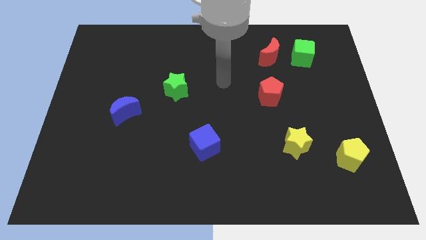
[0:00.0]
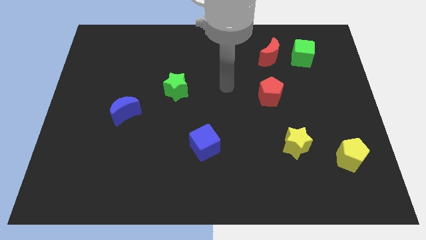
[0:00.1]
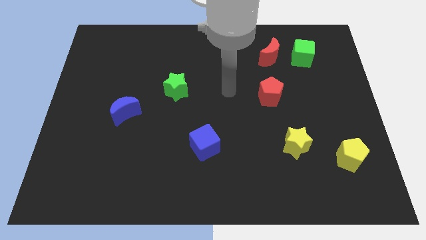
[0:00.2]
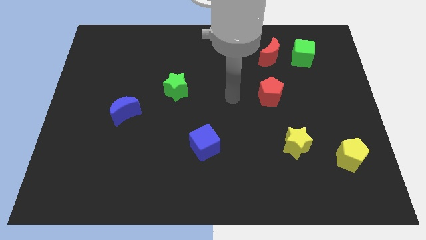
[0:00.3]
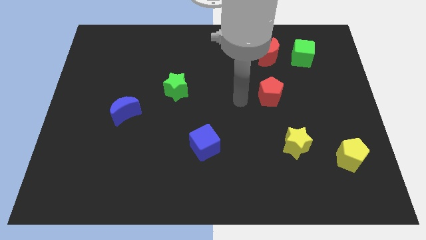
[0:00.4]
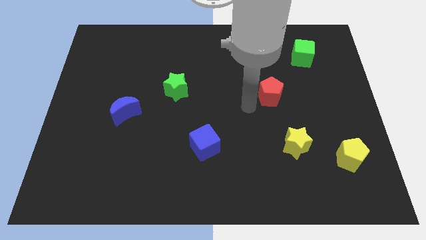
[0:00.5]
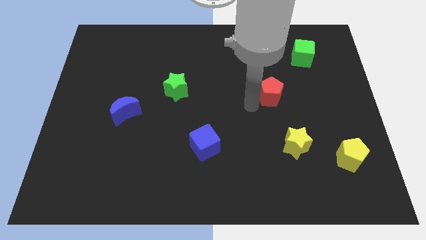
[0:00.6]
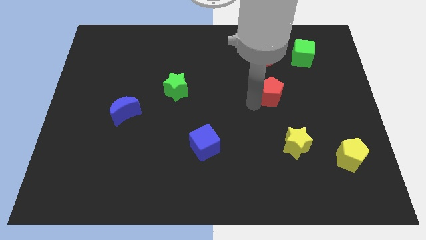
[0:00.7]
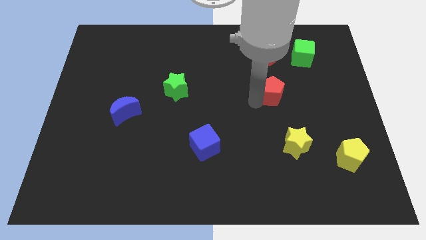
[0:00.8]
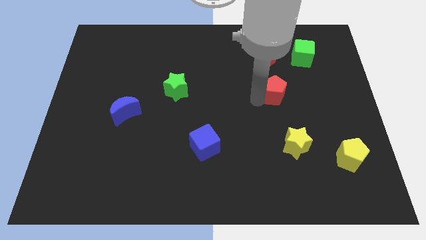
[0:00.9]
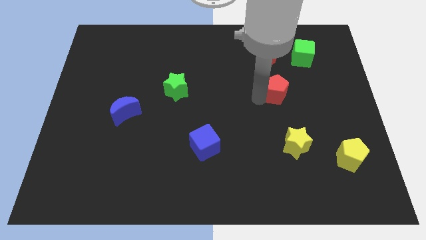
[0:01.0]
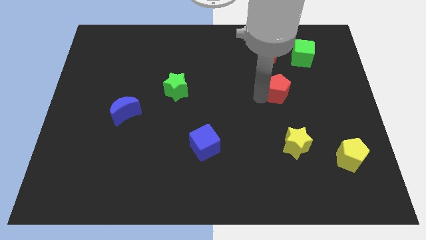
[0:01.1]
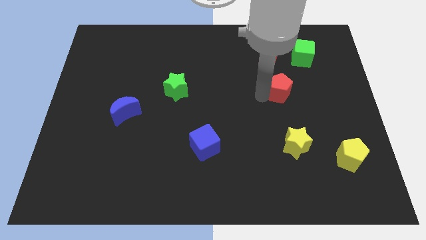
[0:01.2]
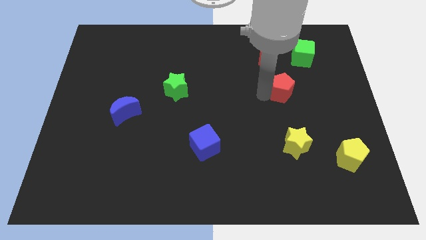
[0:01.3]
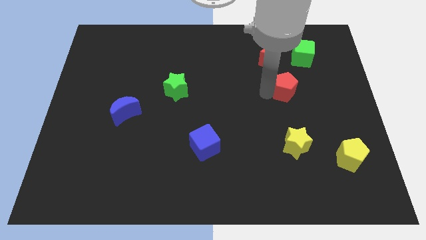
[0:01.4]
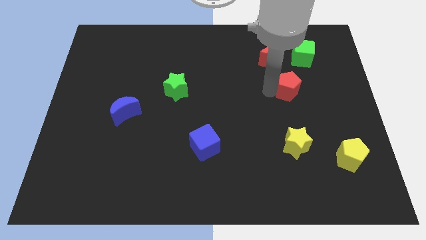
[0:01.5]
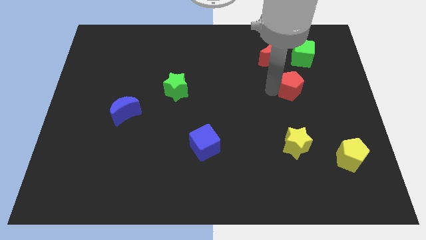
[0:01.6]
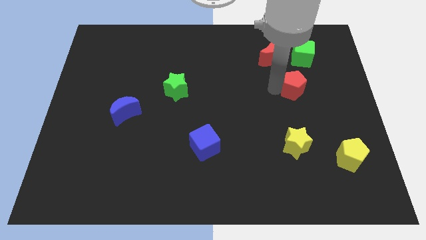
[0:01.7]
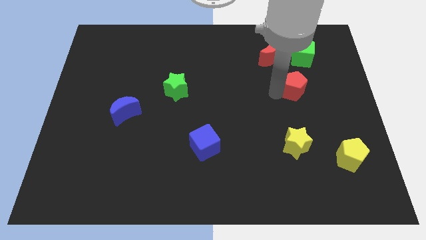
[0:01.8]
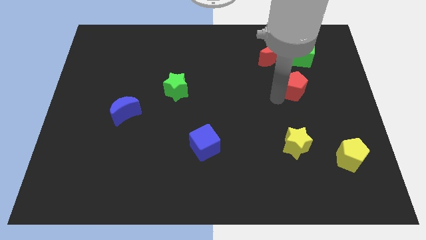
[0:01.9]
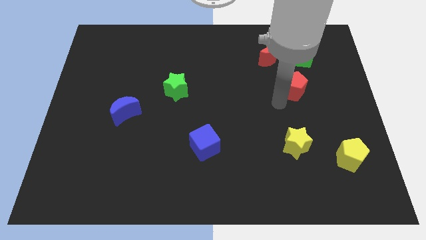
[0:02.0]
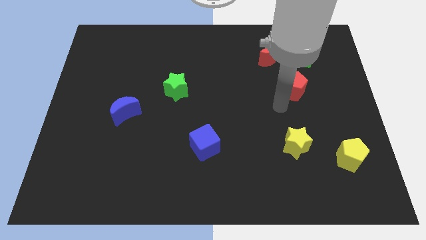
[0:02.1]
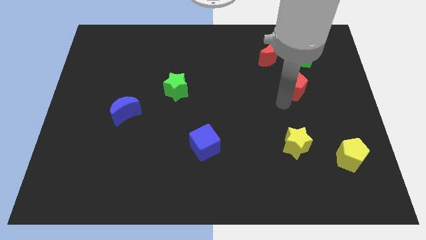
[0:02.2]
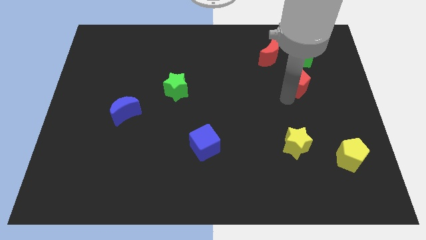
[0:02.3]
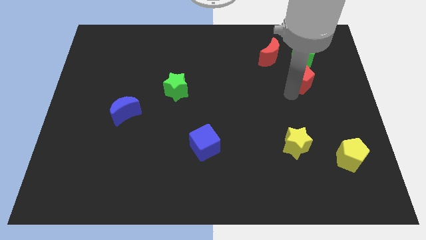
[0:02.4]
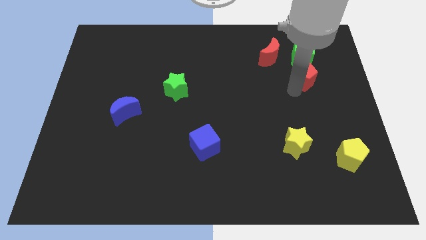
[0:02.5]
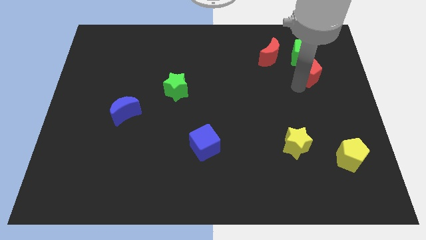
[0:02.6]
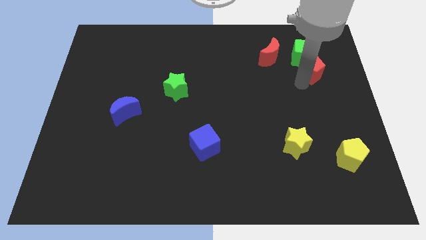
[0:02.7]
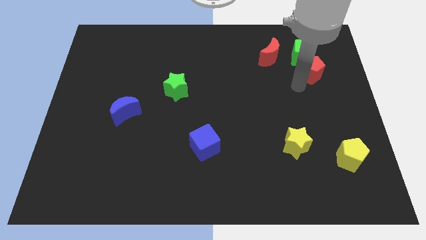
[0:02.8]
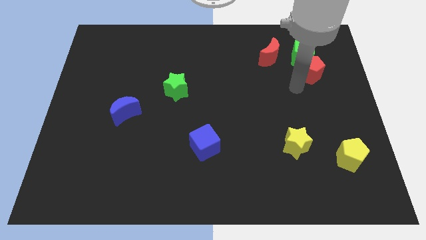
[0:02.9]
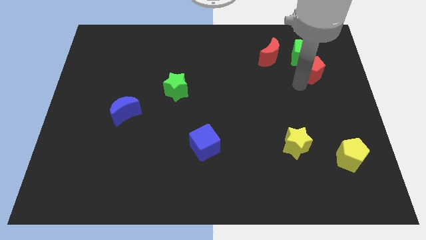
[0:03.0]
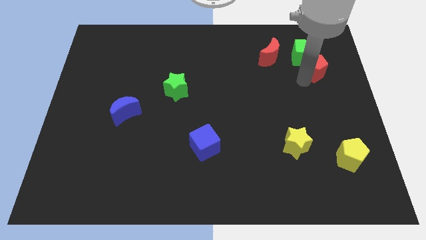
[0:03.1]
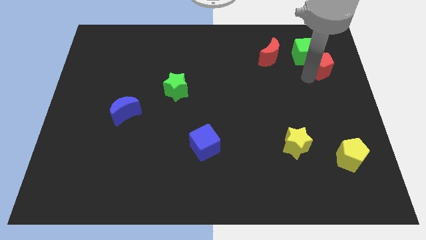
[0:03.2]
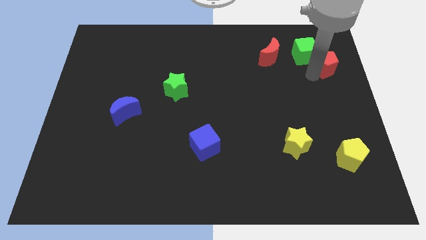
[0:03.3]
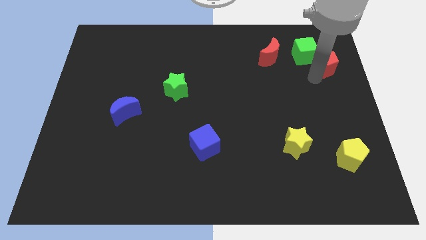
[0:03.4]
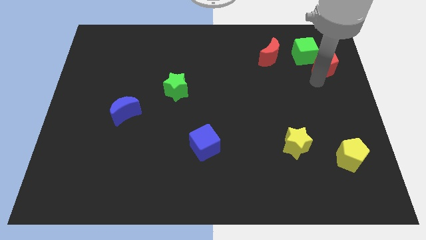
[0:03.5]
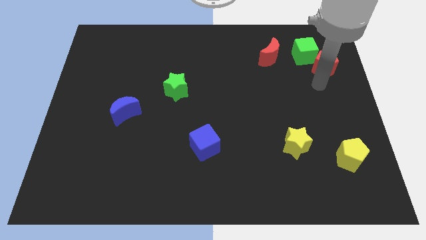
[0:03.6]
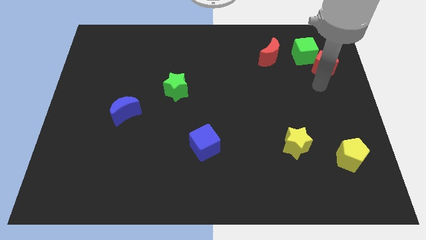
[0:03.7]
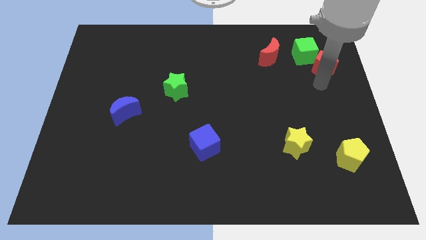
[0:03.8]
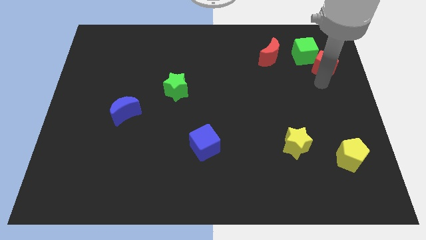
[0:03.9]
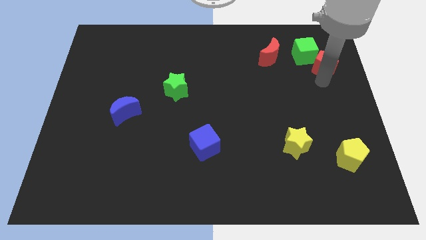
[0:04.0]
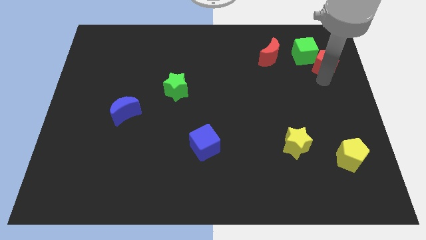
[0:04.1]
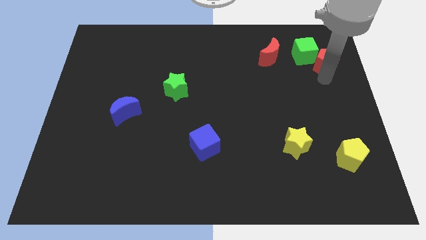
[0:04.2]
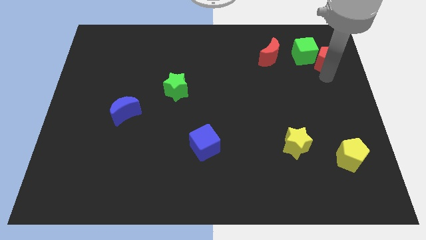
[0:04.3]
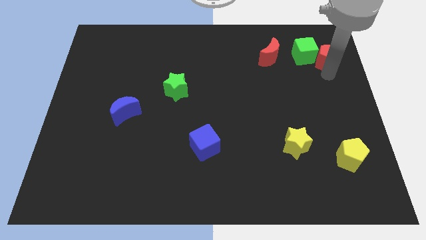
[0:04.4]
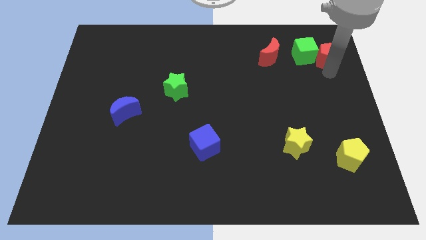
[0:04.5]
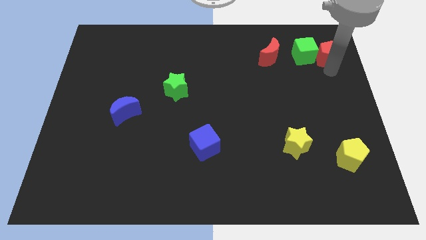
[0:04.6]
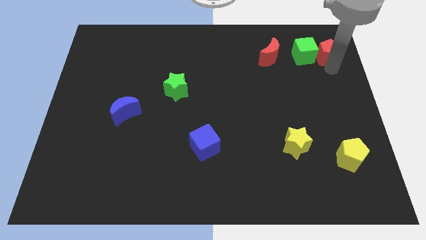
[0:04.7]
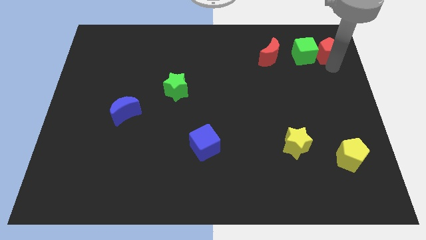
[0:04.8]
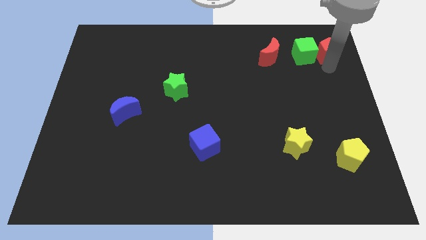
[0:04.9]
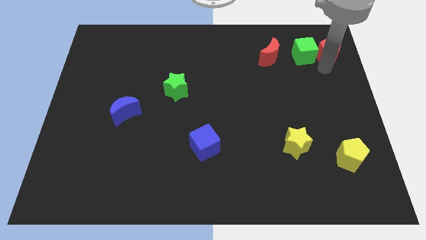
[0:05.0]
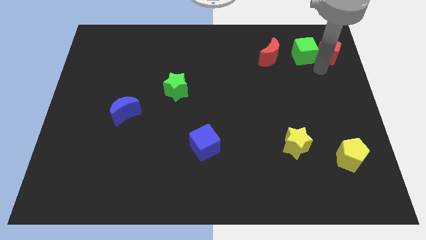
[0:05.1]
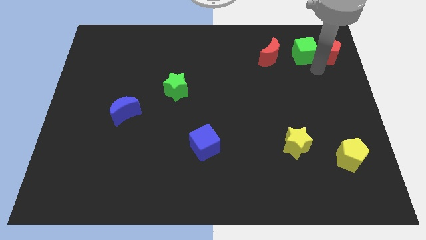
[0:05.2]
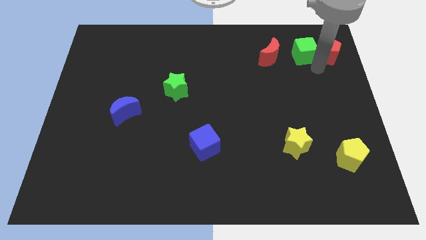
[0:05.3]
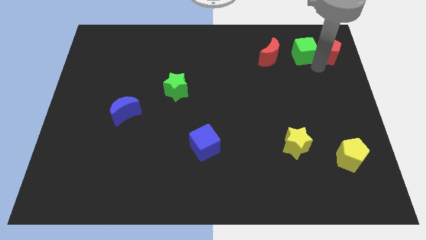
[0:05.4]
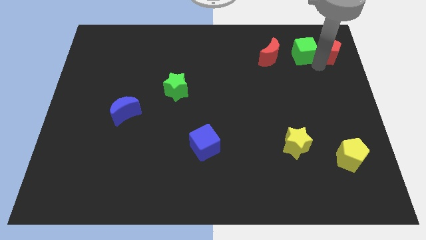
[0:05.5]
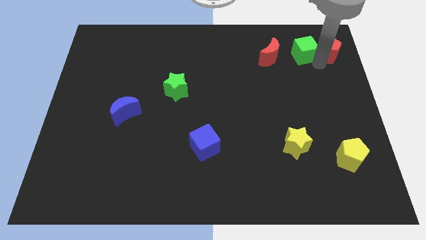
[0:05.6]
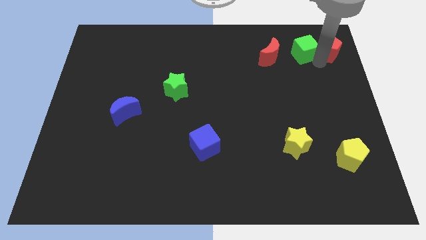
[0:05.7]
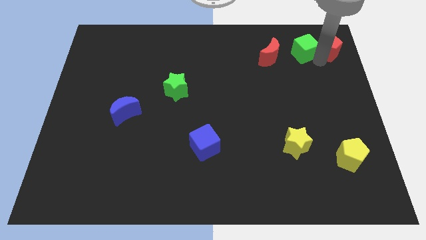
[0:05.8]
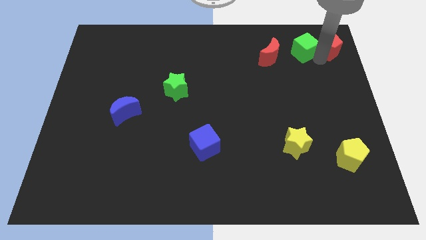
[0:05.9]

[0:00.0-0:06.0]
put the red pentagon to the top right corner

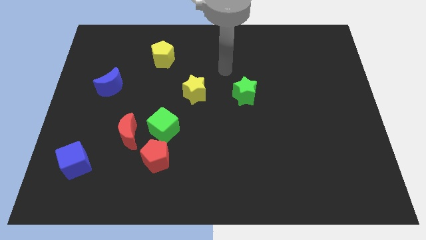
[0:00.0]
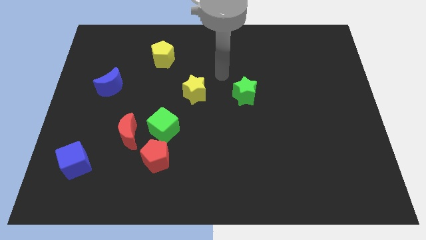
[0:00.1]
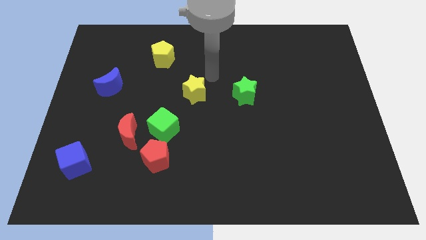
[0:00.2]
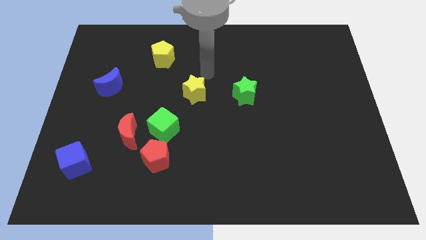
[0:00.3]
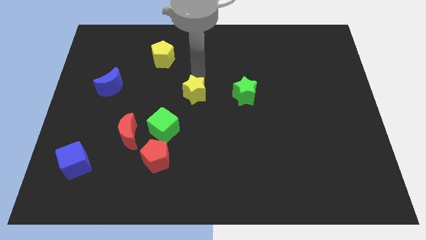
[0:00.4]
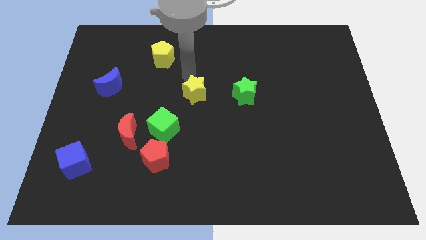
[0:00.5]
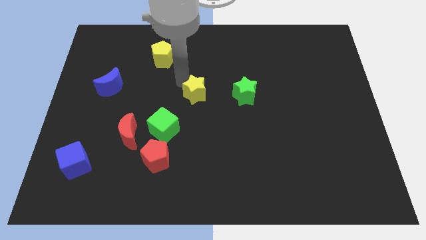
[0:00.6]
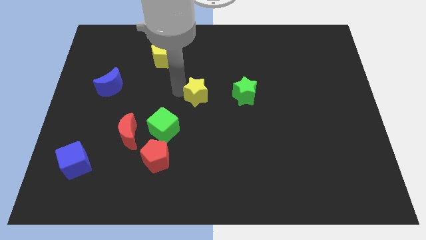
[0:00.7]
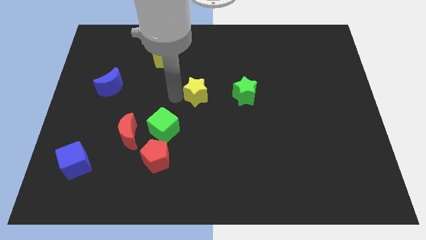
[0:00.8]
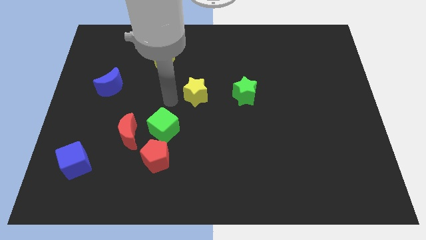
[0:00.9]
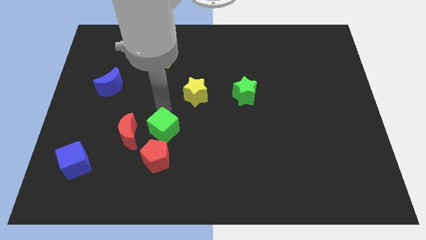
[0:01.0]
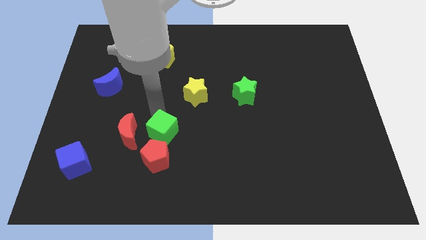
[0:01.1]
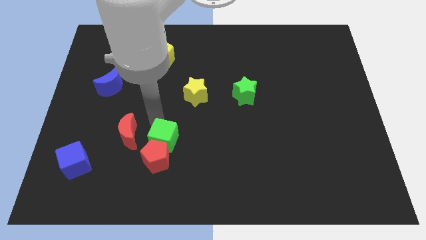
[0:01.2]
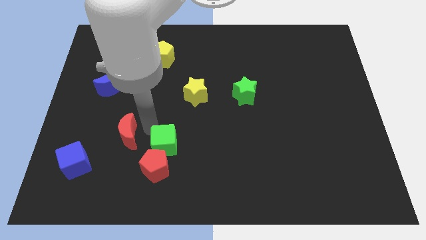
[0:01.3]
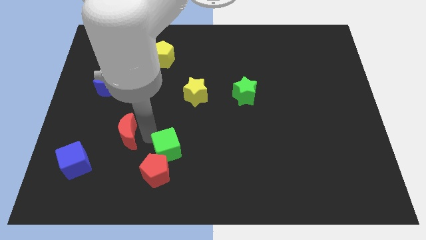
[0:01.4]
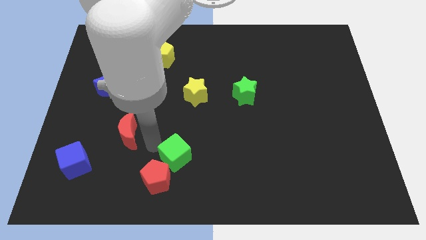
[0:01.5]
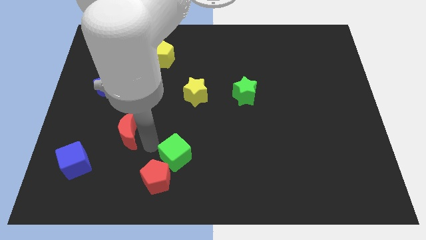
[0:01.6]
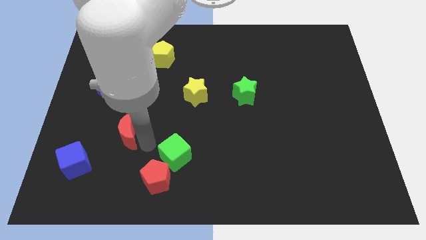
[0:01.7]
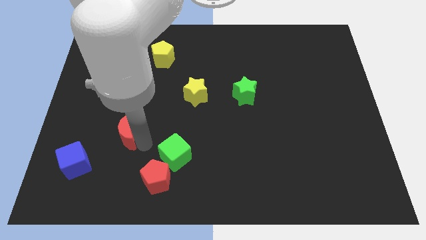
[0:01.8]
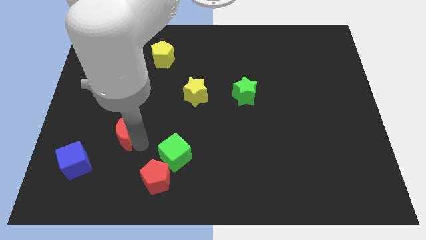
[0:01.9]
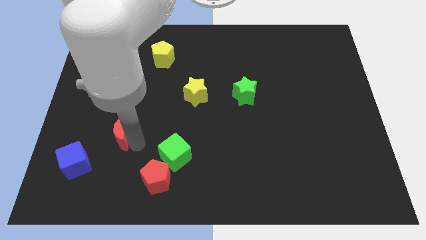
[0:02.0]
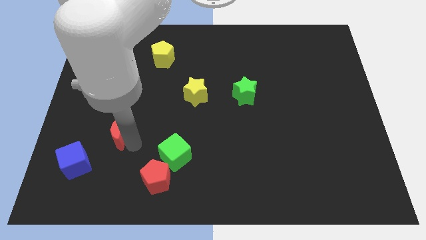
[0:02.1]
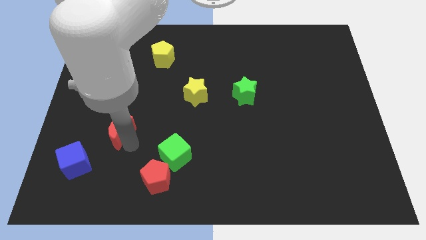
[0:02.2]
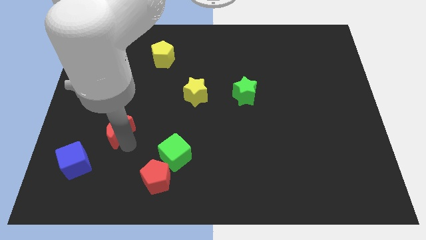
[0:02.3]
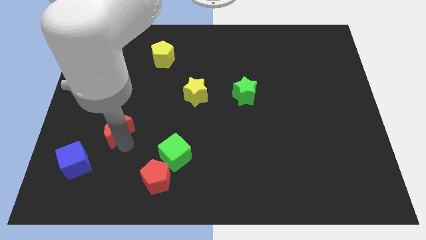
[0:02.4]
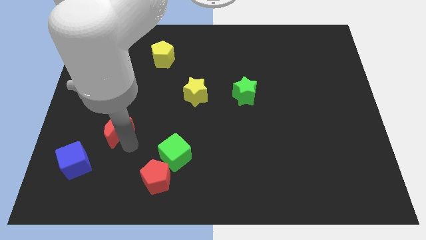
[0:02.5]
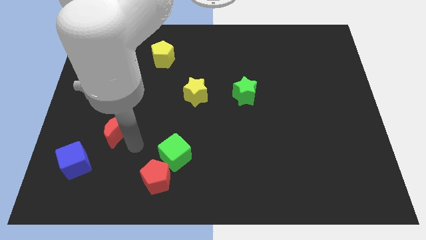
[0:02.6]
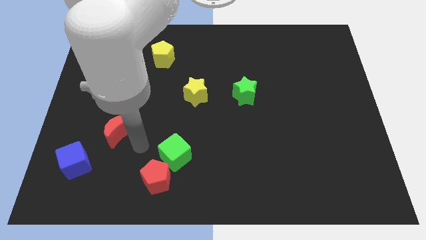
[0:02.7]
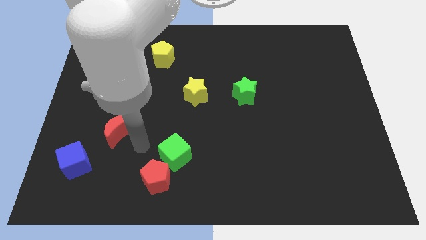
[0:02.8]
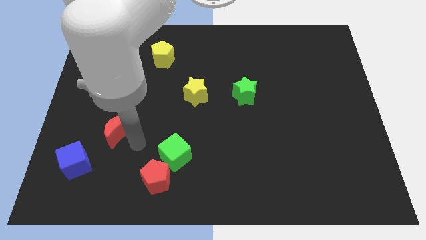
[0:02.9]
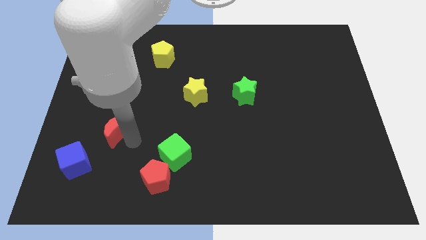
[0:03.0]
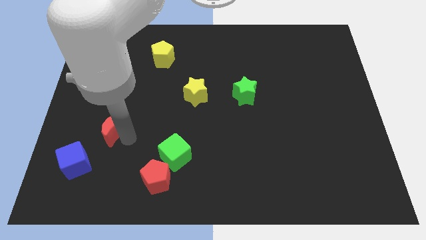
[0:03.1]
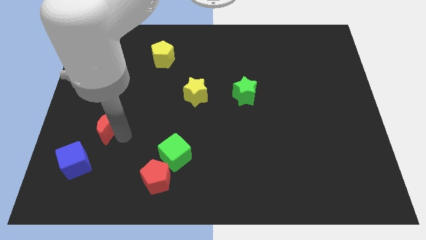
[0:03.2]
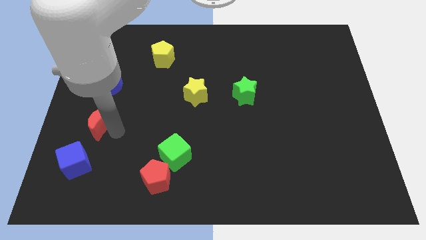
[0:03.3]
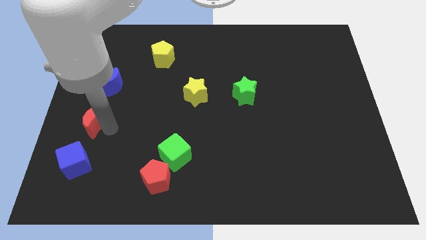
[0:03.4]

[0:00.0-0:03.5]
push the red moon to the left side
